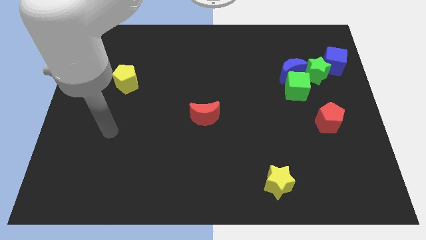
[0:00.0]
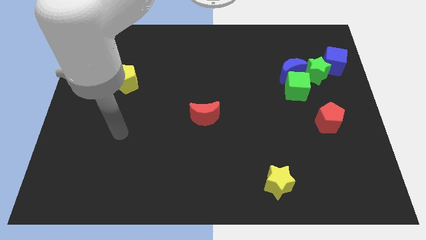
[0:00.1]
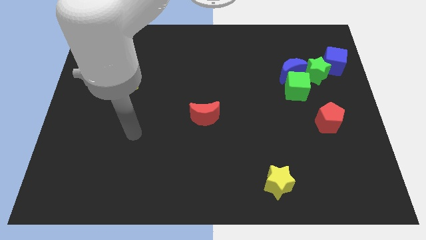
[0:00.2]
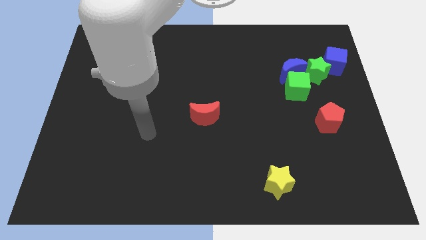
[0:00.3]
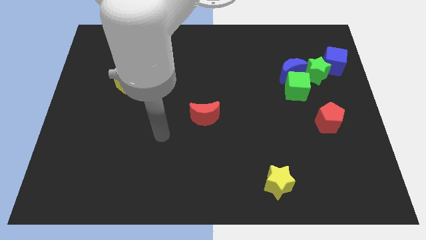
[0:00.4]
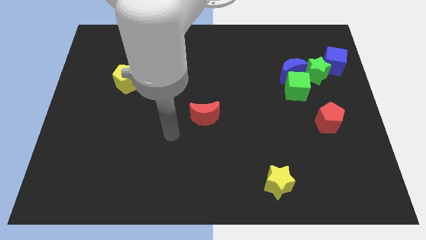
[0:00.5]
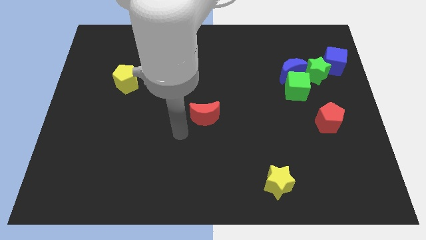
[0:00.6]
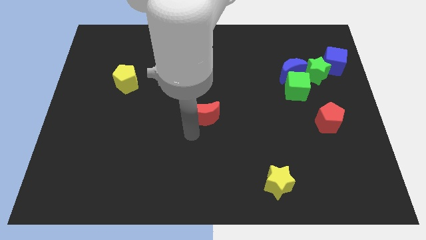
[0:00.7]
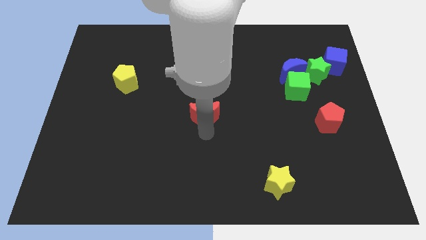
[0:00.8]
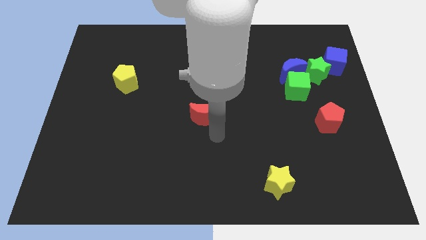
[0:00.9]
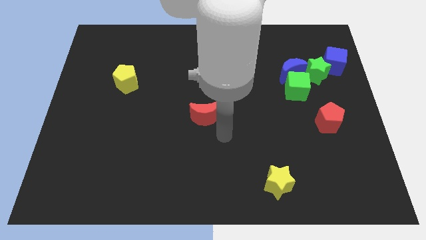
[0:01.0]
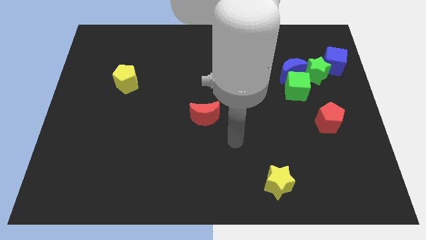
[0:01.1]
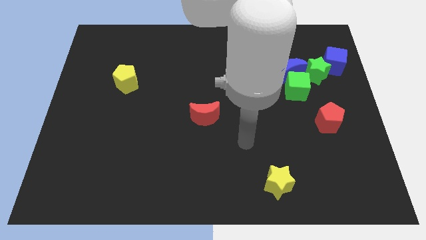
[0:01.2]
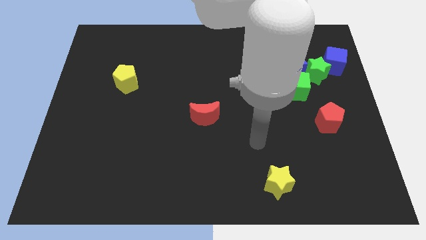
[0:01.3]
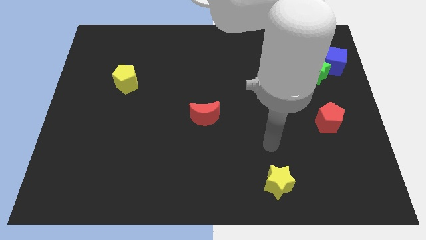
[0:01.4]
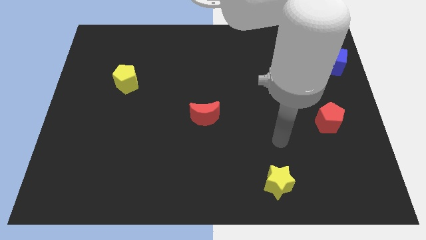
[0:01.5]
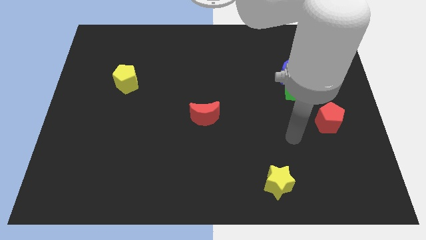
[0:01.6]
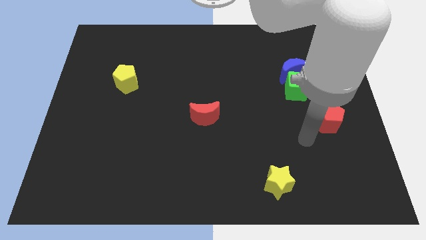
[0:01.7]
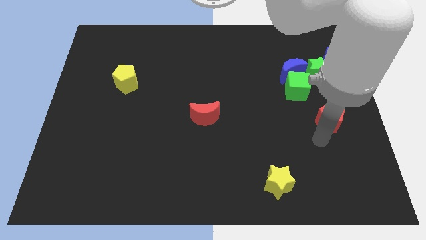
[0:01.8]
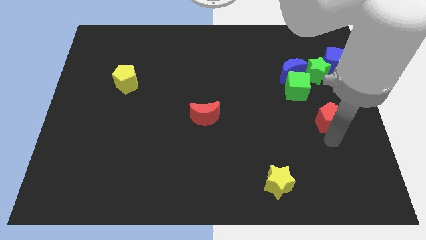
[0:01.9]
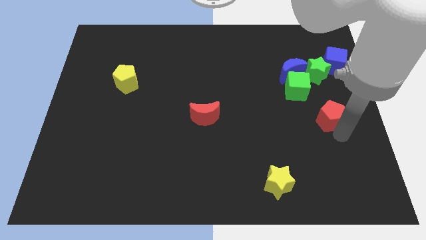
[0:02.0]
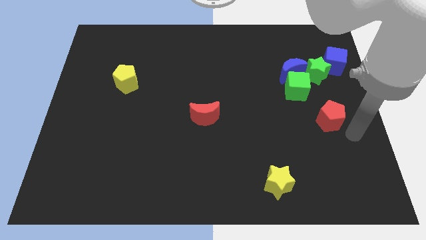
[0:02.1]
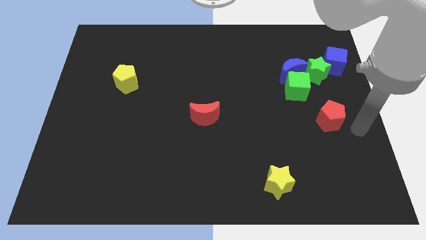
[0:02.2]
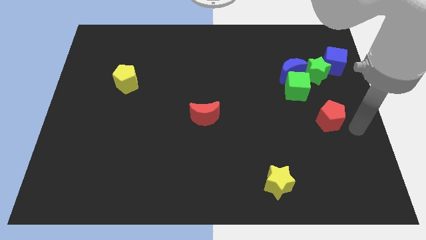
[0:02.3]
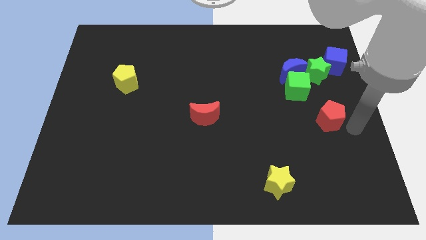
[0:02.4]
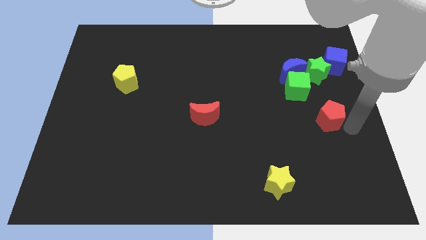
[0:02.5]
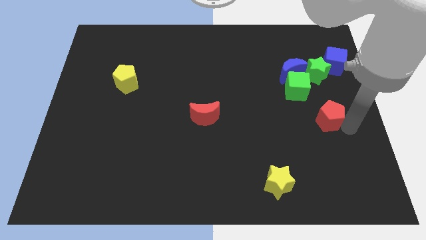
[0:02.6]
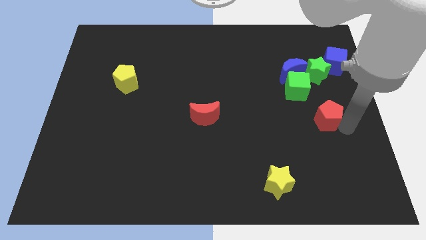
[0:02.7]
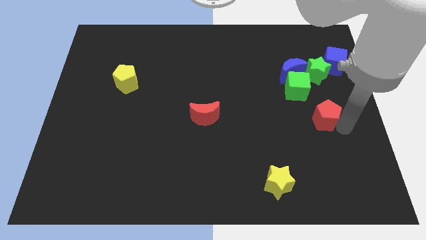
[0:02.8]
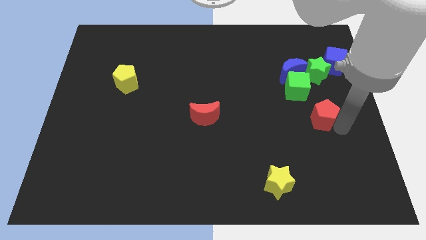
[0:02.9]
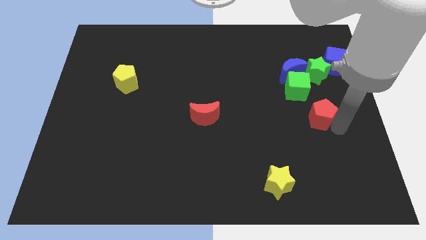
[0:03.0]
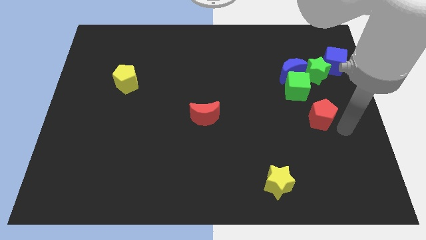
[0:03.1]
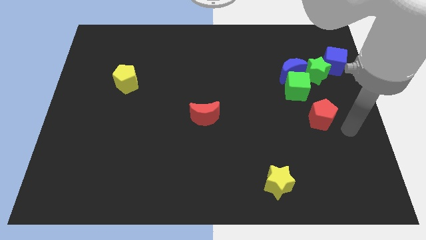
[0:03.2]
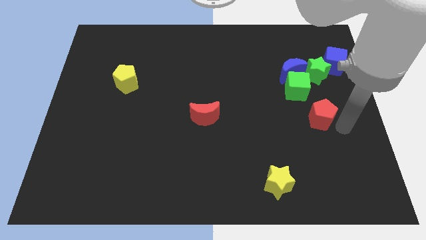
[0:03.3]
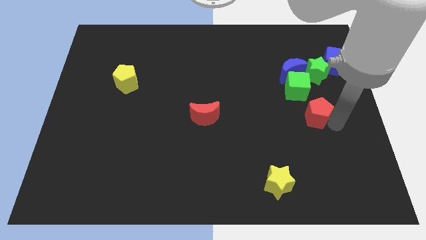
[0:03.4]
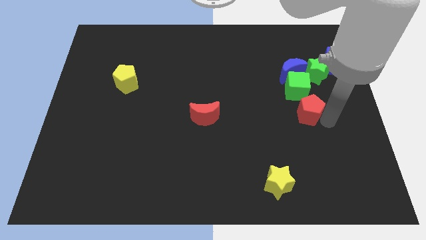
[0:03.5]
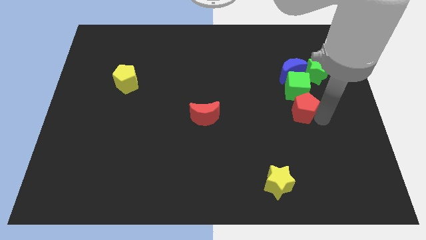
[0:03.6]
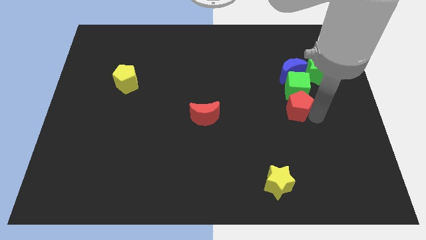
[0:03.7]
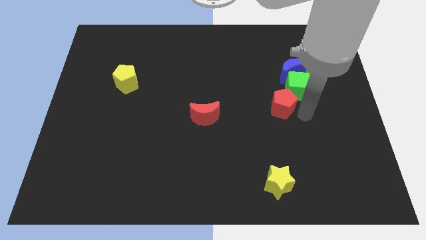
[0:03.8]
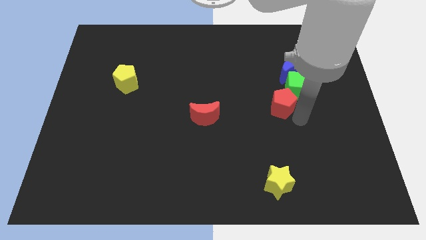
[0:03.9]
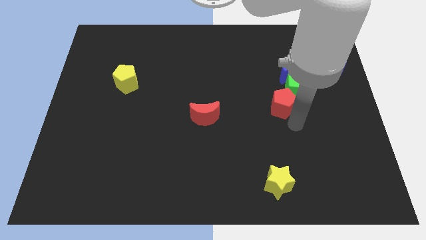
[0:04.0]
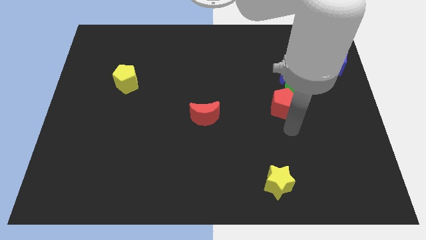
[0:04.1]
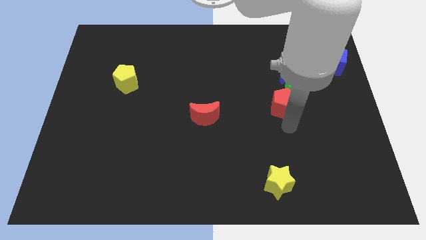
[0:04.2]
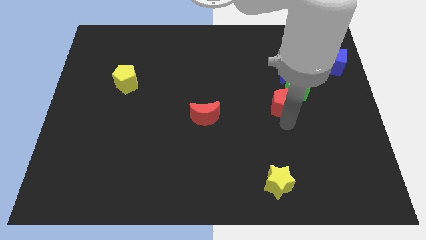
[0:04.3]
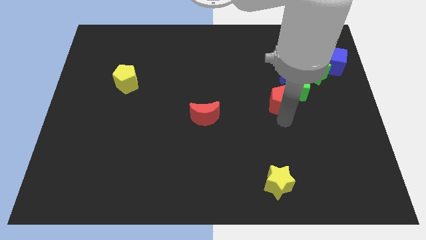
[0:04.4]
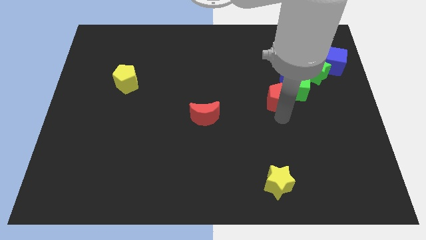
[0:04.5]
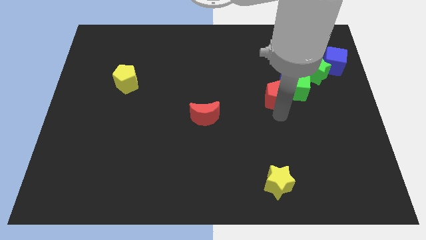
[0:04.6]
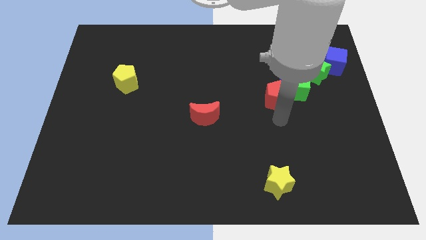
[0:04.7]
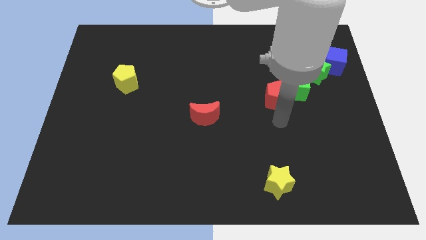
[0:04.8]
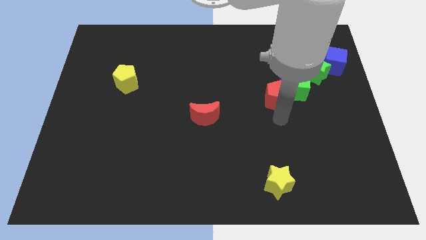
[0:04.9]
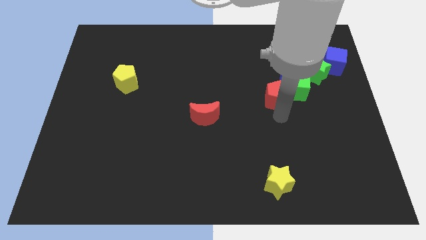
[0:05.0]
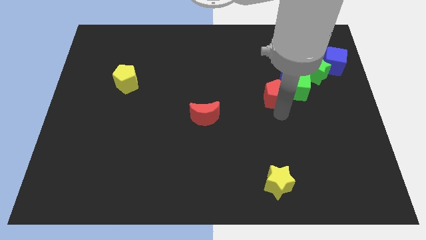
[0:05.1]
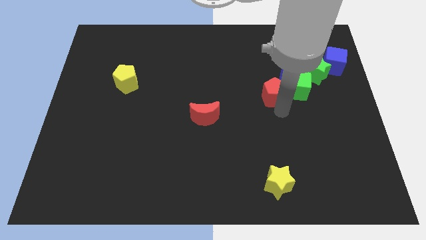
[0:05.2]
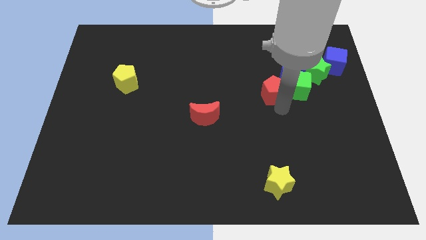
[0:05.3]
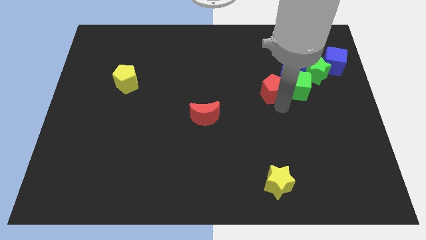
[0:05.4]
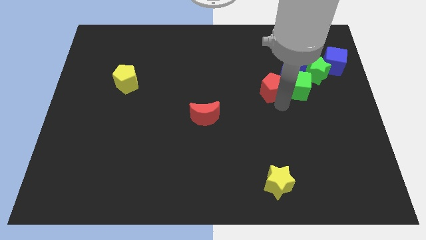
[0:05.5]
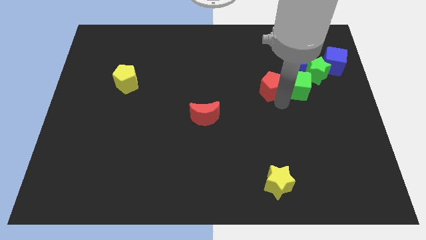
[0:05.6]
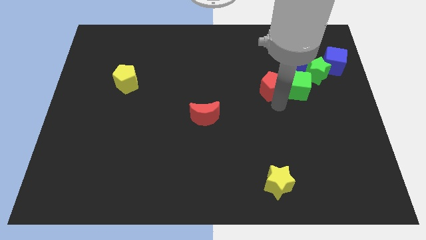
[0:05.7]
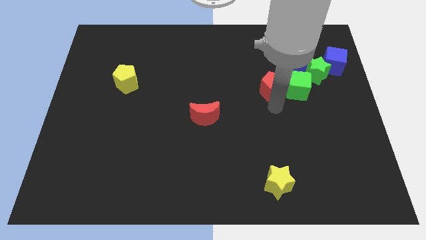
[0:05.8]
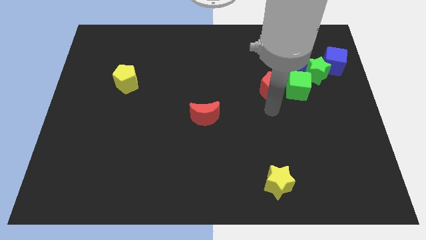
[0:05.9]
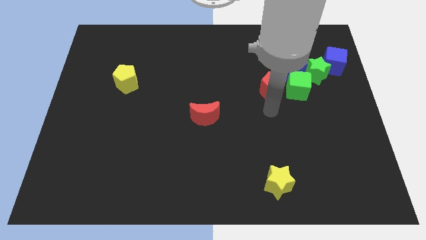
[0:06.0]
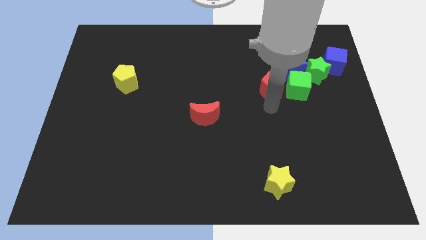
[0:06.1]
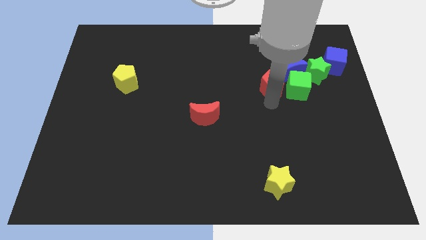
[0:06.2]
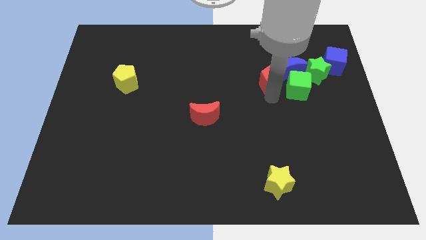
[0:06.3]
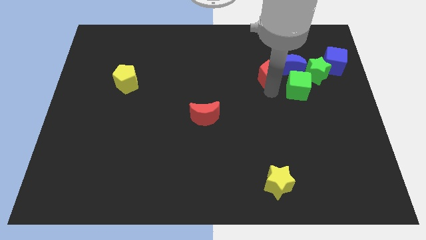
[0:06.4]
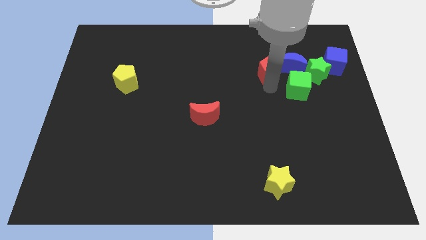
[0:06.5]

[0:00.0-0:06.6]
push the red pentagon somewhat upwards

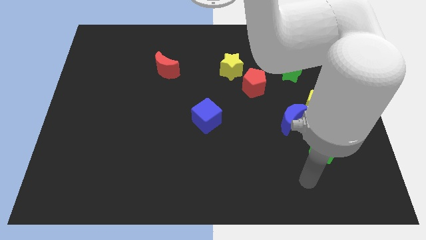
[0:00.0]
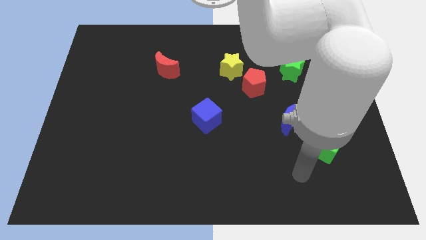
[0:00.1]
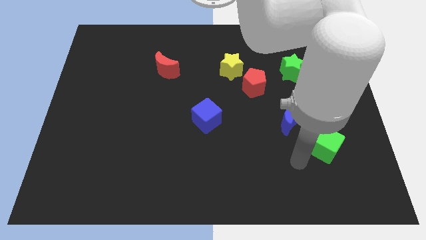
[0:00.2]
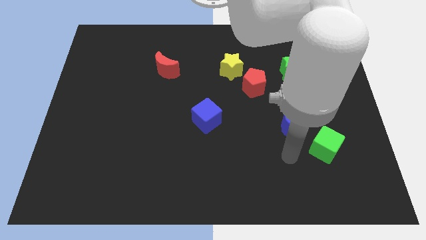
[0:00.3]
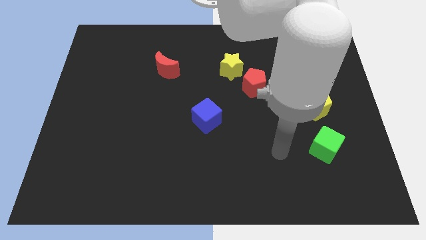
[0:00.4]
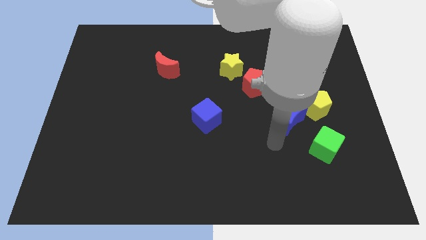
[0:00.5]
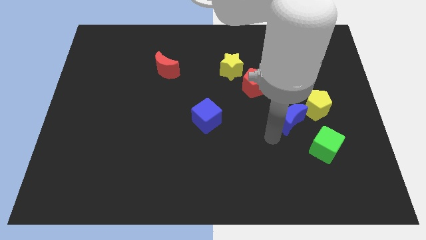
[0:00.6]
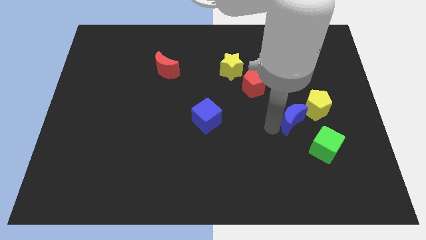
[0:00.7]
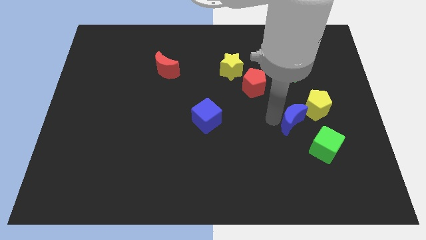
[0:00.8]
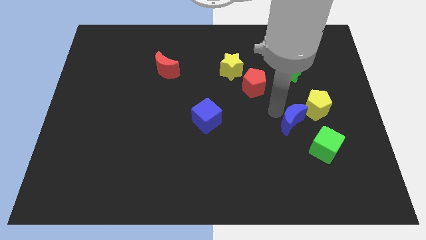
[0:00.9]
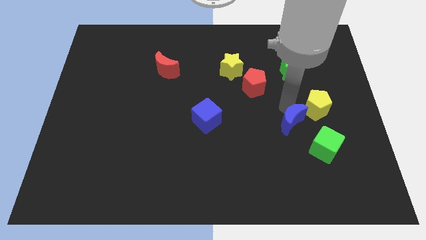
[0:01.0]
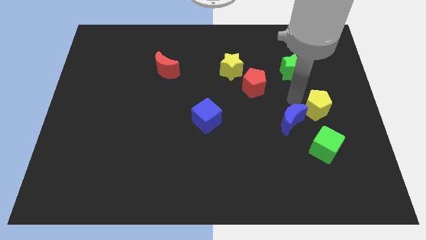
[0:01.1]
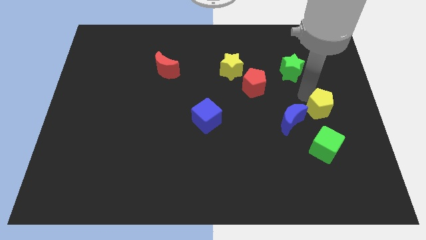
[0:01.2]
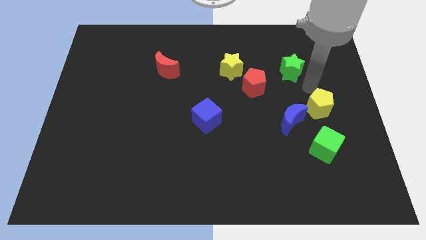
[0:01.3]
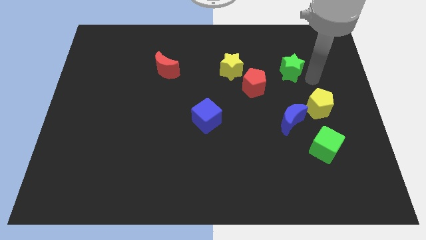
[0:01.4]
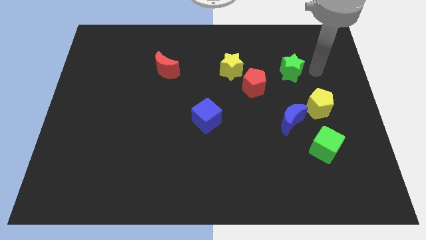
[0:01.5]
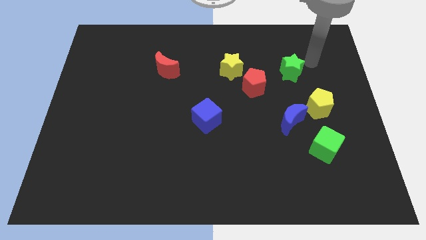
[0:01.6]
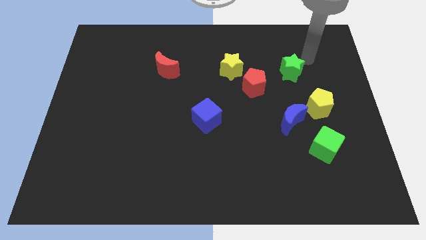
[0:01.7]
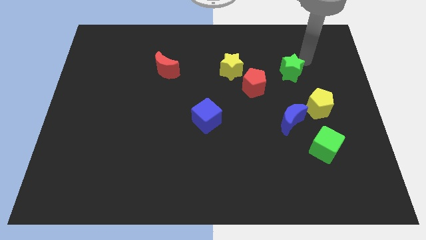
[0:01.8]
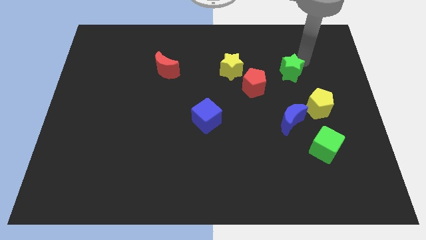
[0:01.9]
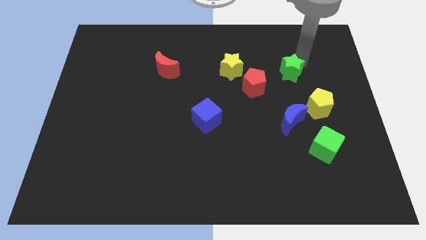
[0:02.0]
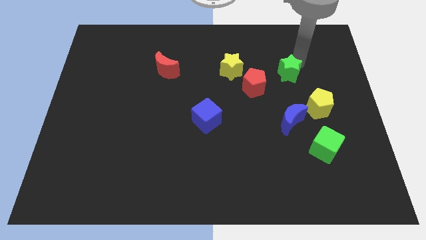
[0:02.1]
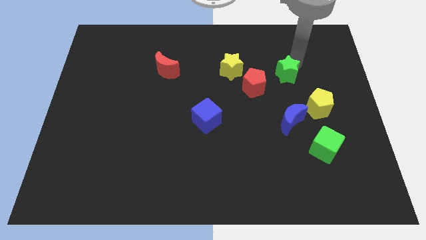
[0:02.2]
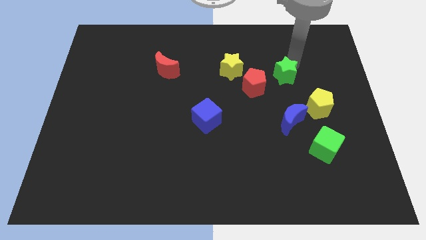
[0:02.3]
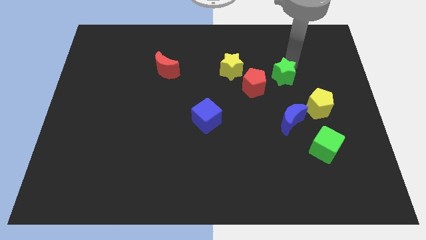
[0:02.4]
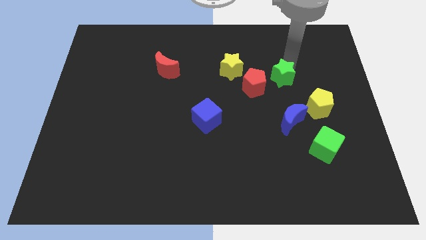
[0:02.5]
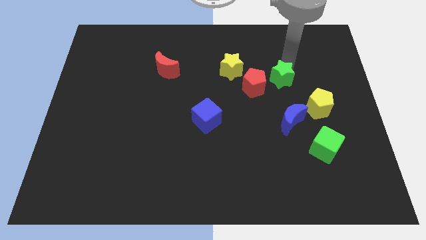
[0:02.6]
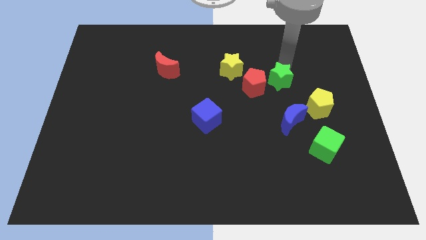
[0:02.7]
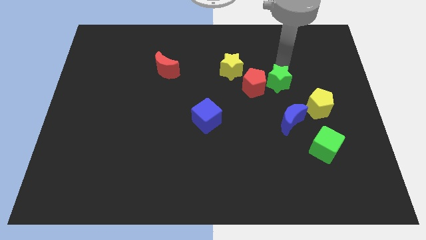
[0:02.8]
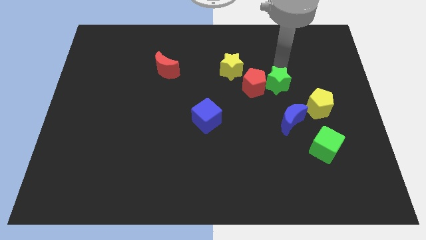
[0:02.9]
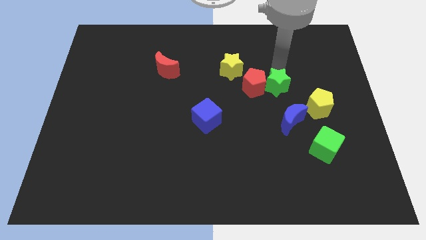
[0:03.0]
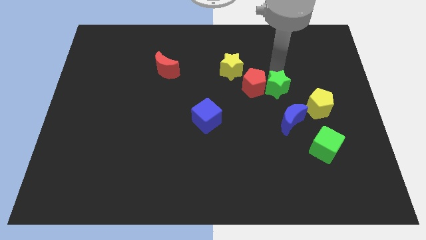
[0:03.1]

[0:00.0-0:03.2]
slightly slide the green star down and then to the left
